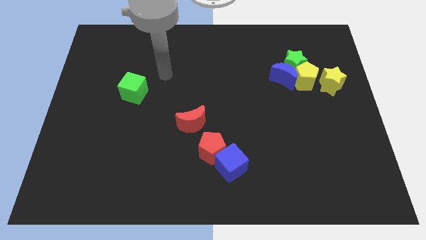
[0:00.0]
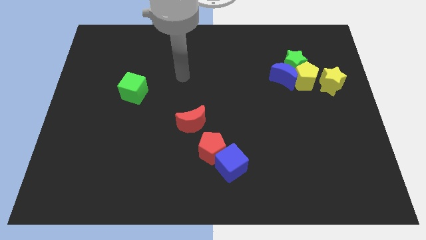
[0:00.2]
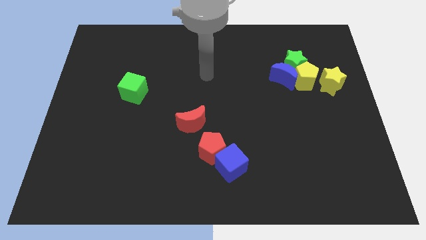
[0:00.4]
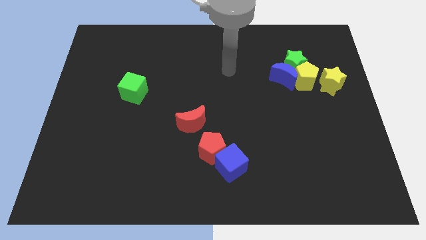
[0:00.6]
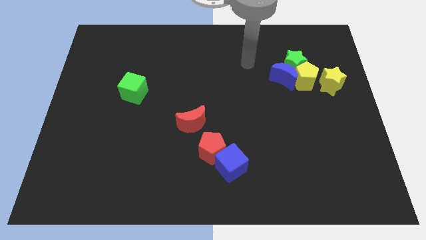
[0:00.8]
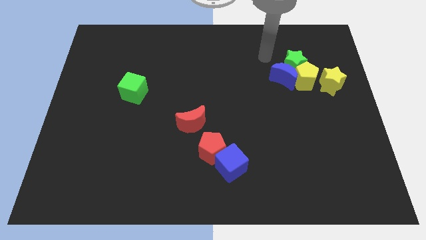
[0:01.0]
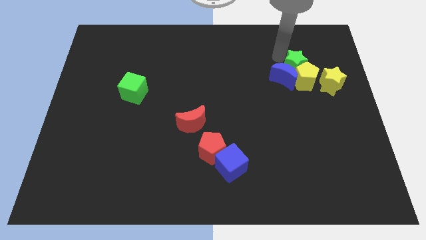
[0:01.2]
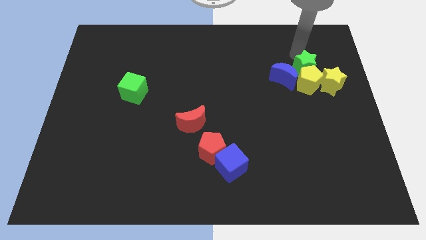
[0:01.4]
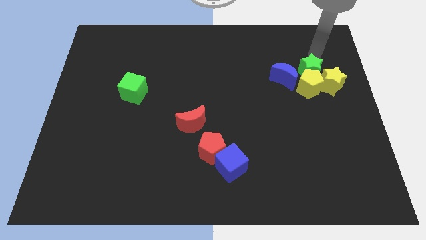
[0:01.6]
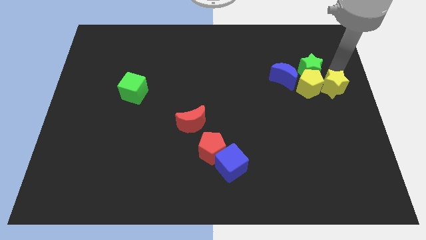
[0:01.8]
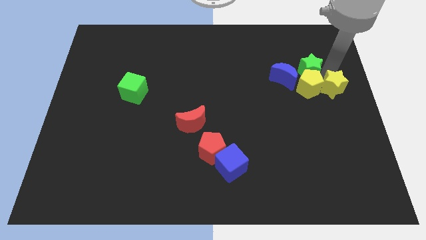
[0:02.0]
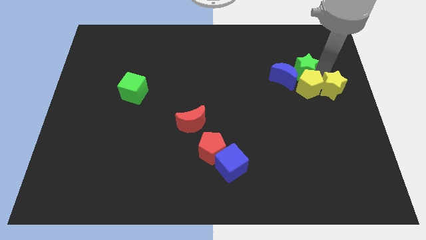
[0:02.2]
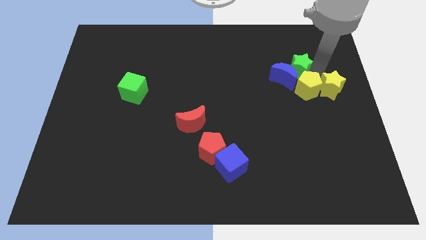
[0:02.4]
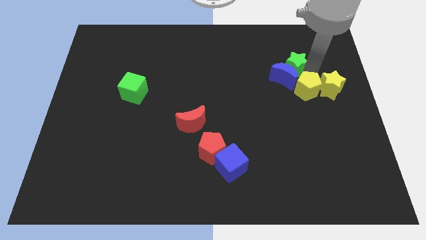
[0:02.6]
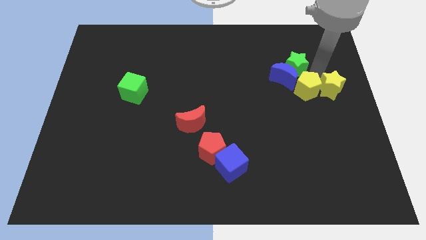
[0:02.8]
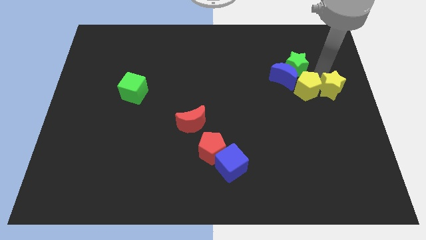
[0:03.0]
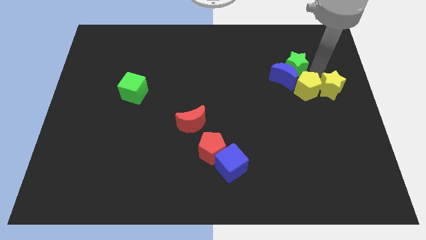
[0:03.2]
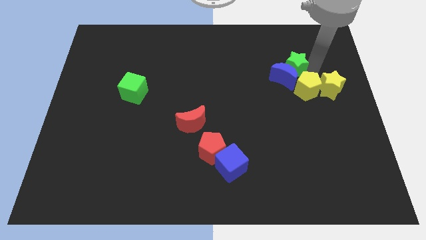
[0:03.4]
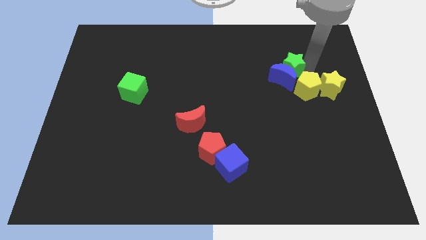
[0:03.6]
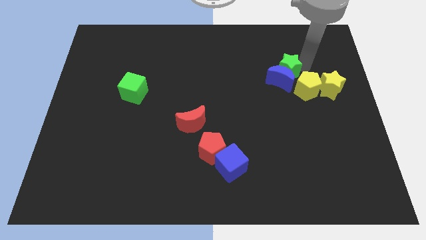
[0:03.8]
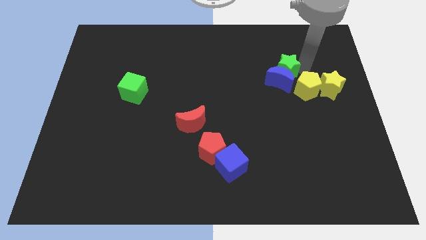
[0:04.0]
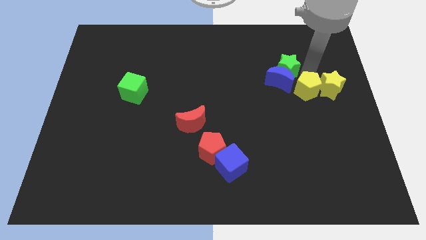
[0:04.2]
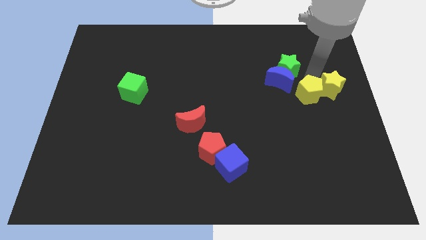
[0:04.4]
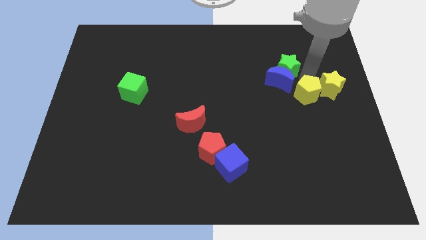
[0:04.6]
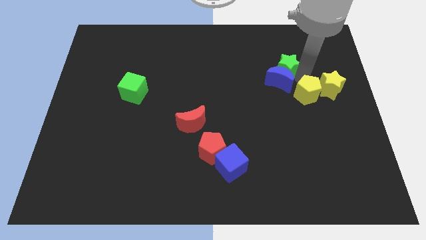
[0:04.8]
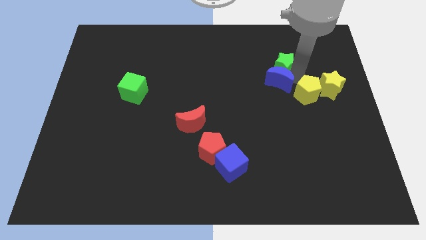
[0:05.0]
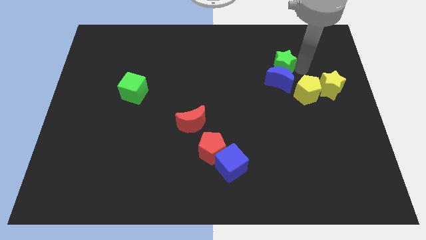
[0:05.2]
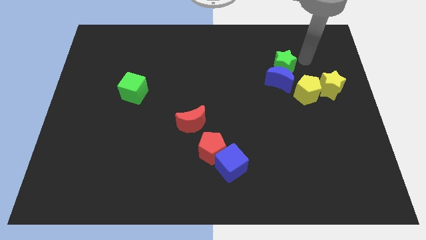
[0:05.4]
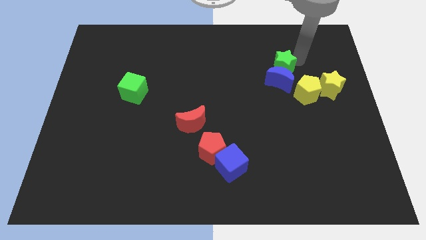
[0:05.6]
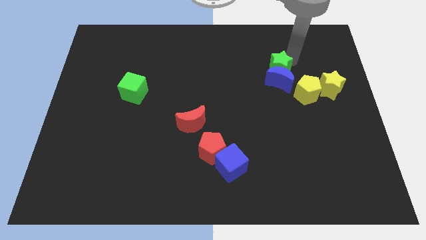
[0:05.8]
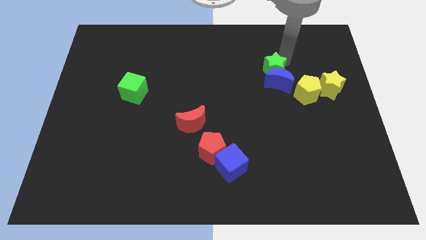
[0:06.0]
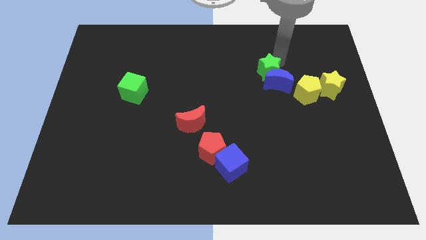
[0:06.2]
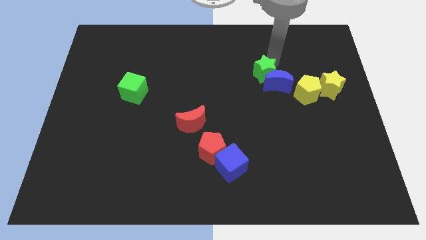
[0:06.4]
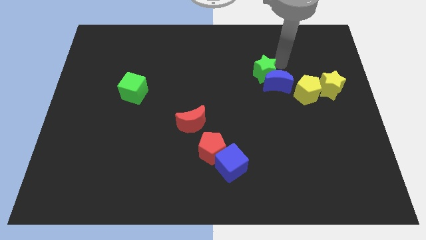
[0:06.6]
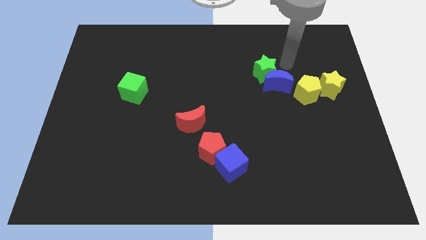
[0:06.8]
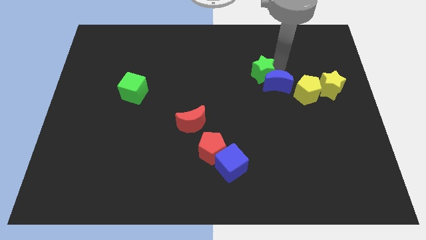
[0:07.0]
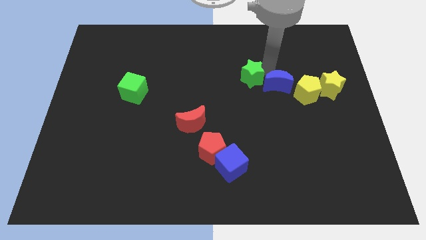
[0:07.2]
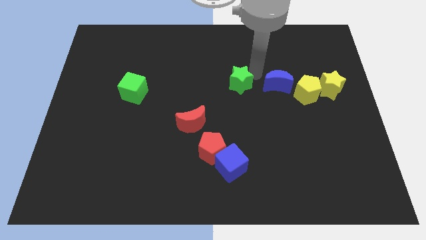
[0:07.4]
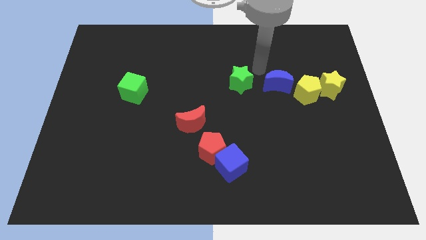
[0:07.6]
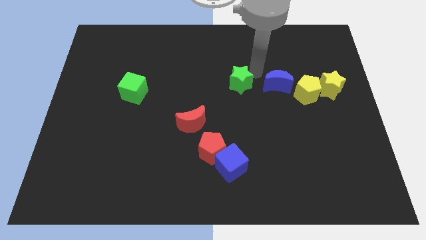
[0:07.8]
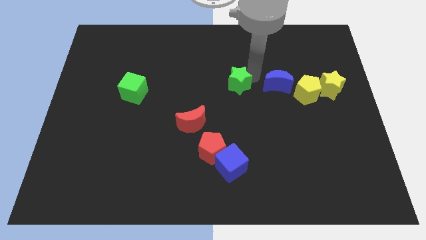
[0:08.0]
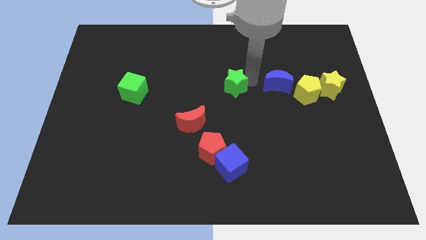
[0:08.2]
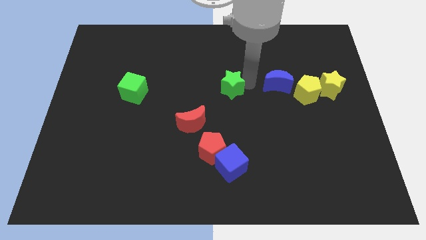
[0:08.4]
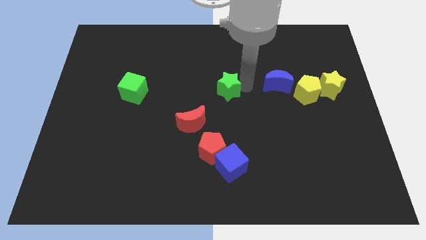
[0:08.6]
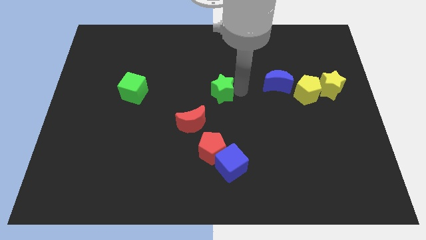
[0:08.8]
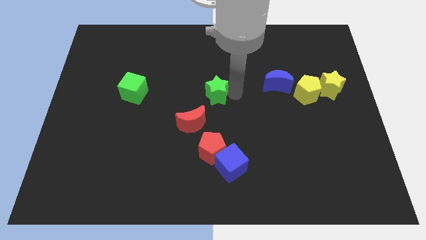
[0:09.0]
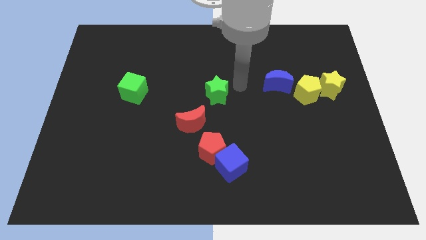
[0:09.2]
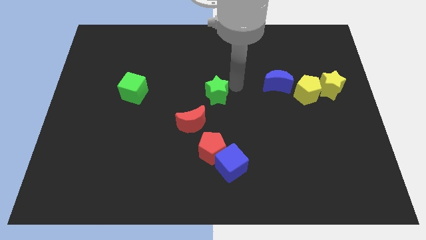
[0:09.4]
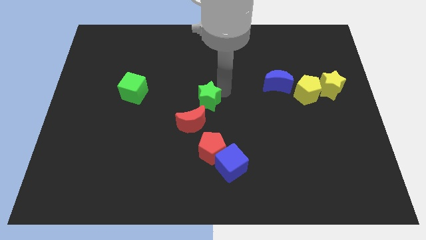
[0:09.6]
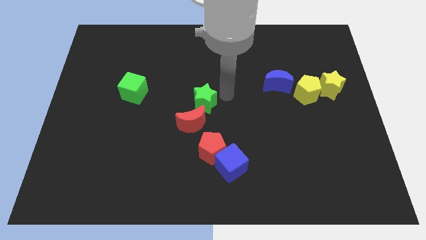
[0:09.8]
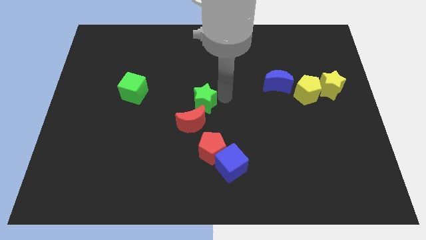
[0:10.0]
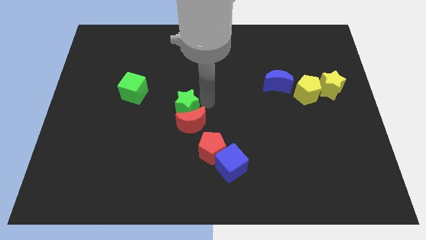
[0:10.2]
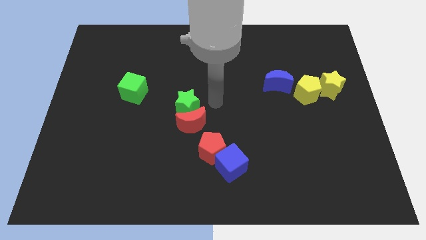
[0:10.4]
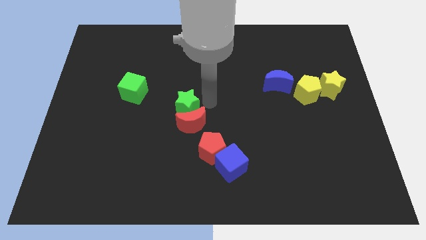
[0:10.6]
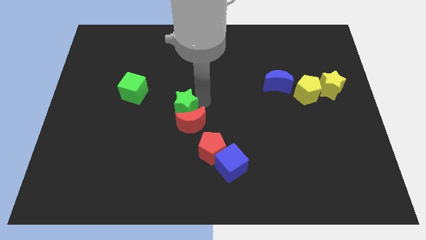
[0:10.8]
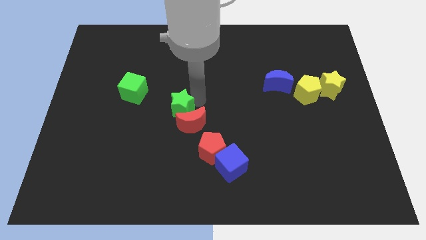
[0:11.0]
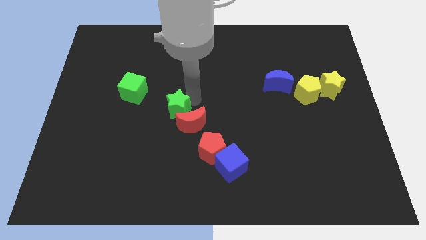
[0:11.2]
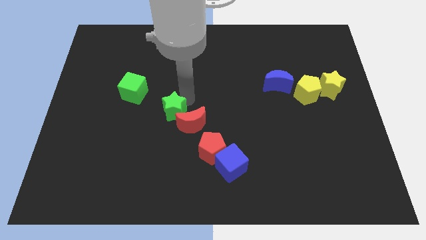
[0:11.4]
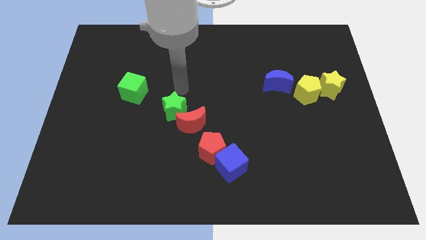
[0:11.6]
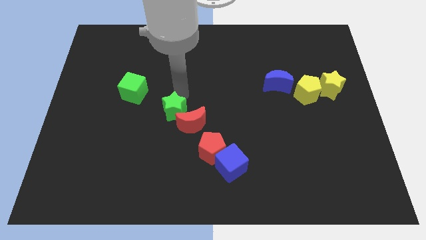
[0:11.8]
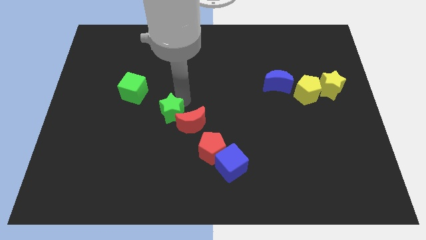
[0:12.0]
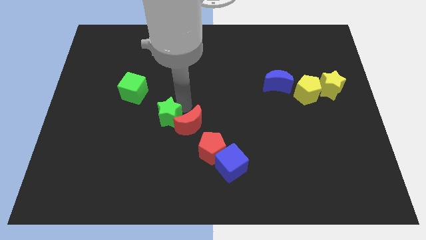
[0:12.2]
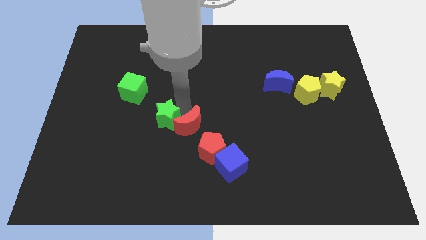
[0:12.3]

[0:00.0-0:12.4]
slide the green star to the bottom left of the red moon
